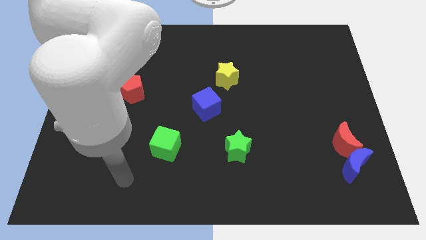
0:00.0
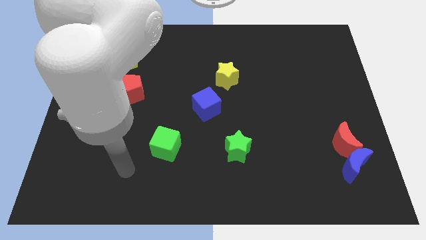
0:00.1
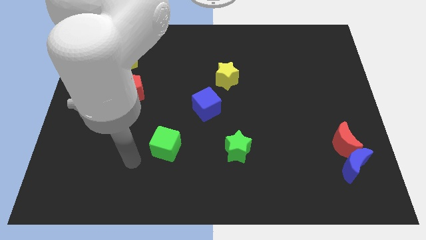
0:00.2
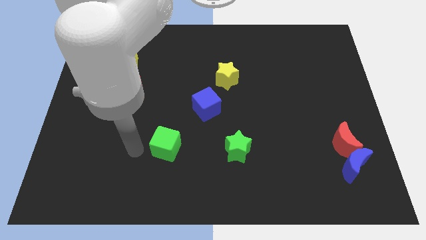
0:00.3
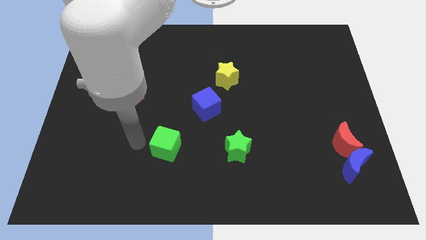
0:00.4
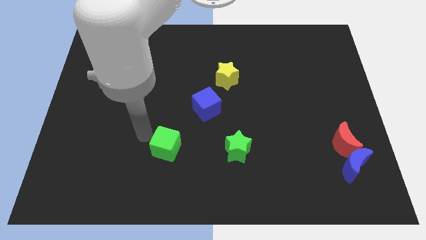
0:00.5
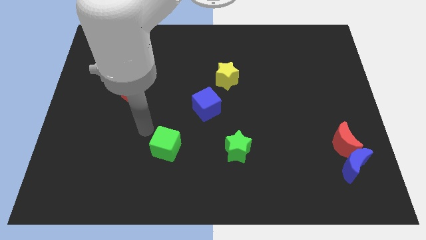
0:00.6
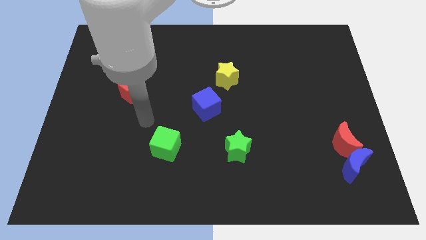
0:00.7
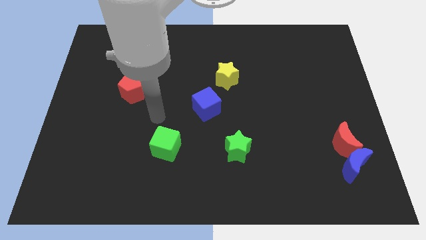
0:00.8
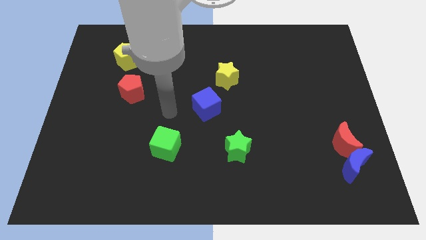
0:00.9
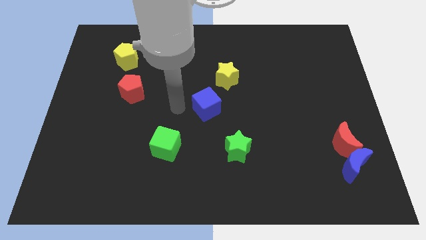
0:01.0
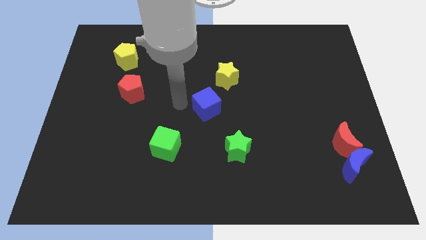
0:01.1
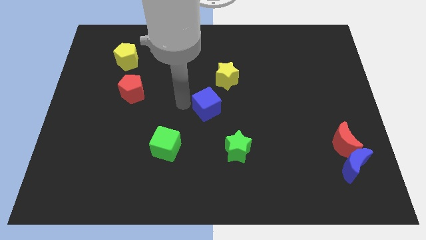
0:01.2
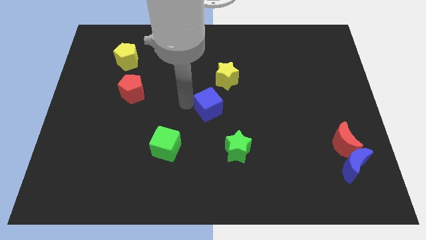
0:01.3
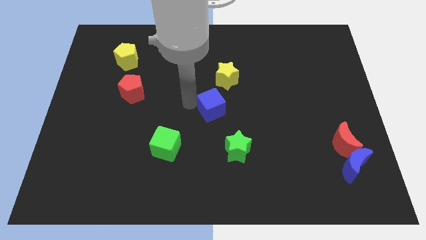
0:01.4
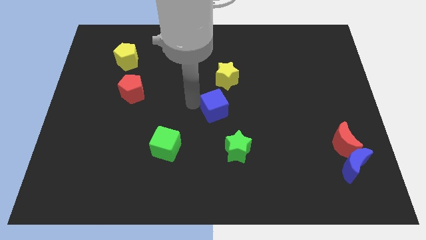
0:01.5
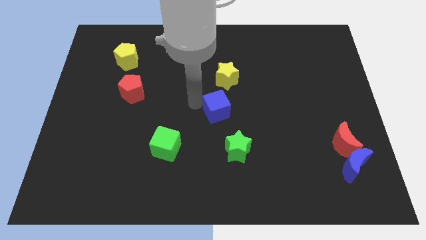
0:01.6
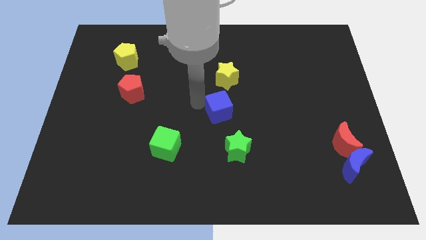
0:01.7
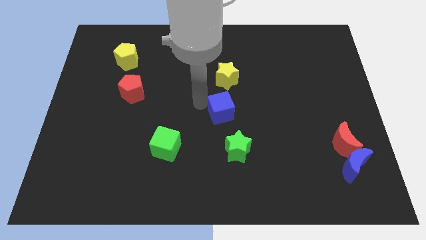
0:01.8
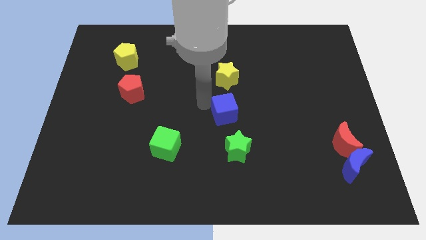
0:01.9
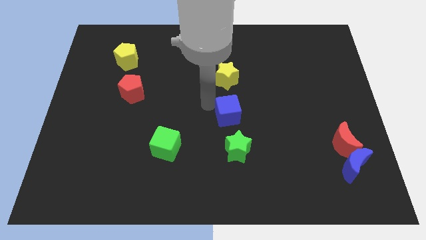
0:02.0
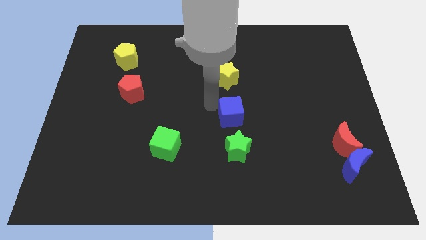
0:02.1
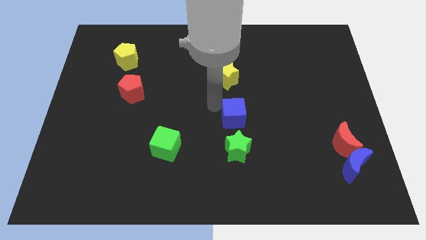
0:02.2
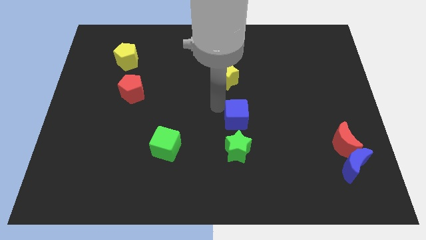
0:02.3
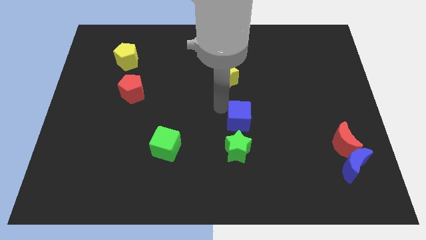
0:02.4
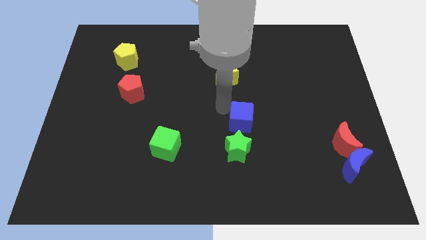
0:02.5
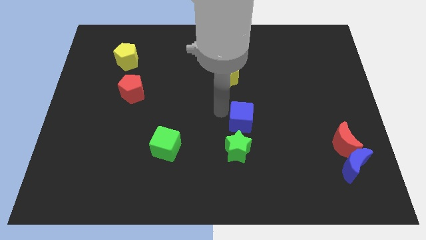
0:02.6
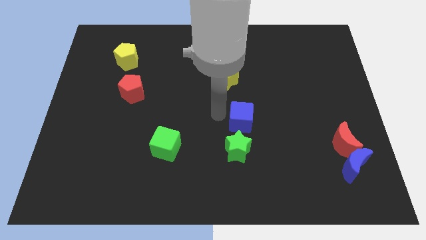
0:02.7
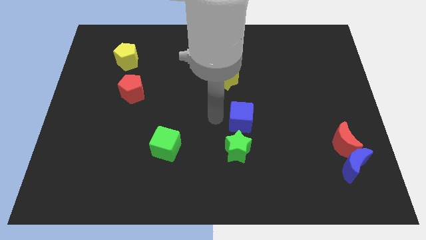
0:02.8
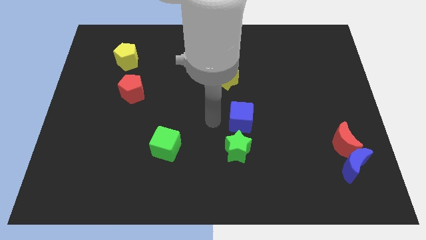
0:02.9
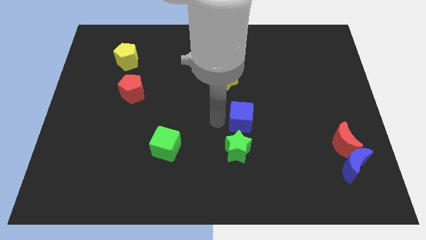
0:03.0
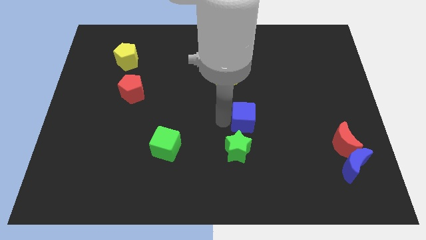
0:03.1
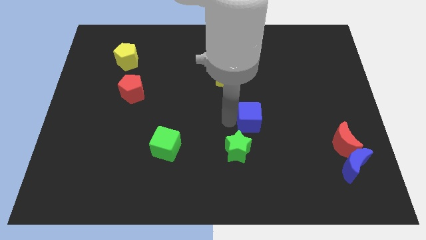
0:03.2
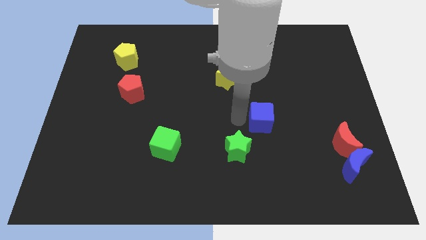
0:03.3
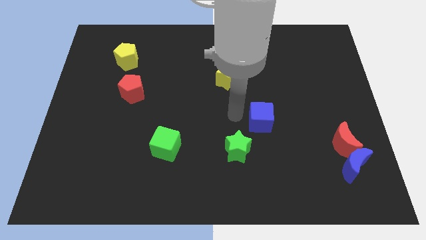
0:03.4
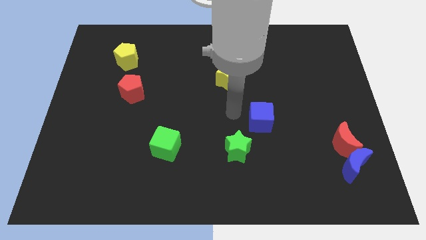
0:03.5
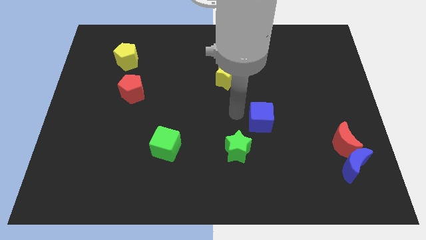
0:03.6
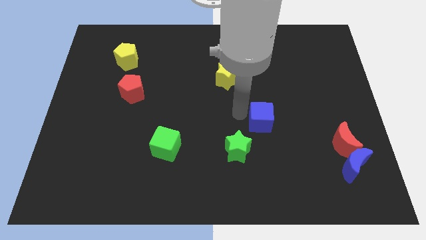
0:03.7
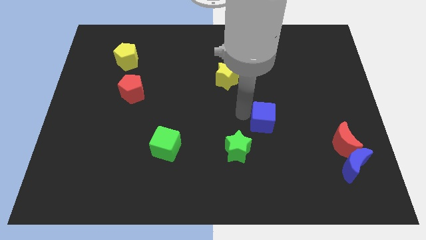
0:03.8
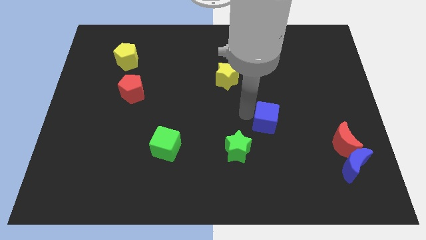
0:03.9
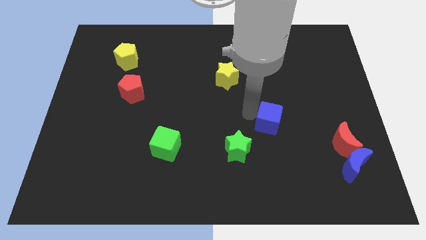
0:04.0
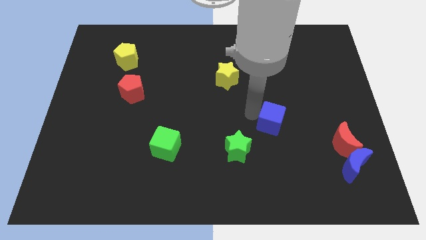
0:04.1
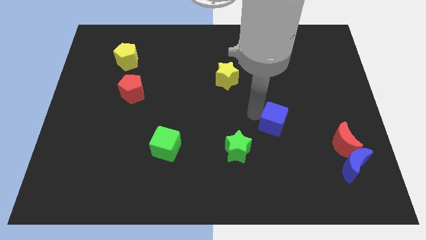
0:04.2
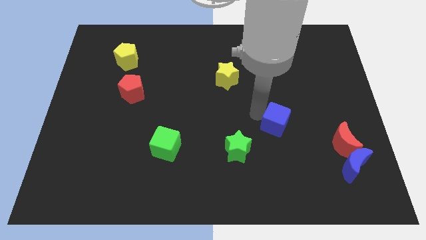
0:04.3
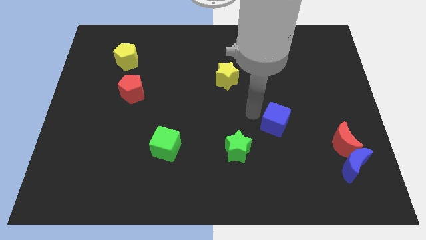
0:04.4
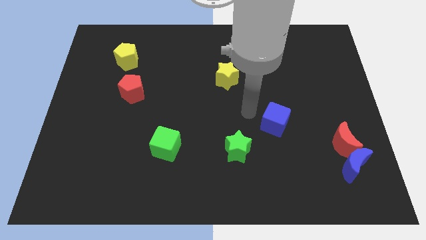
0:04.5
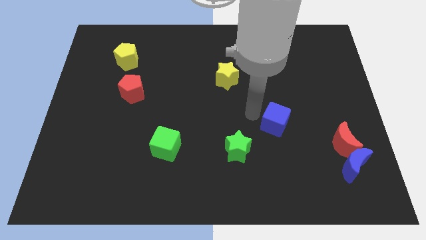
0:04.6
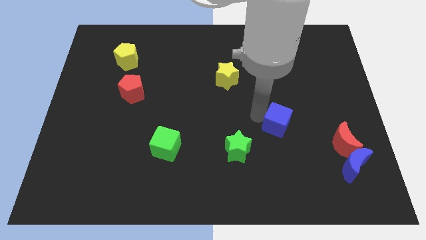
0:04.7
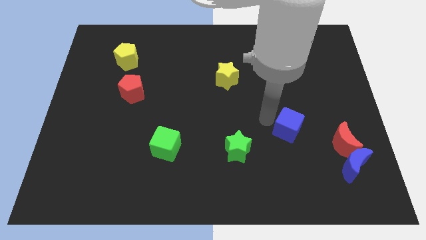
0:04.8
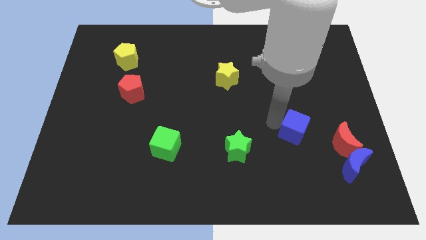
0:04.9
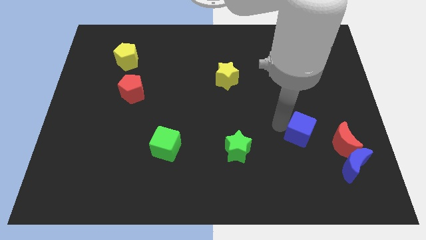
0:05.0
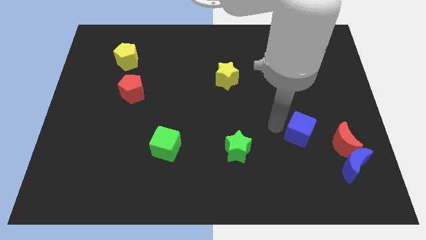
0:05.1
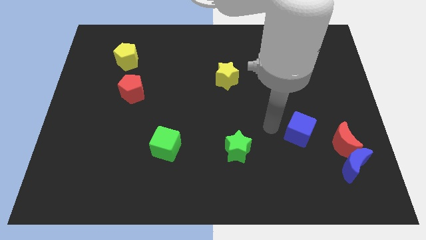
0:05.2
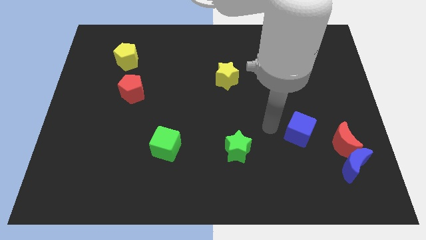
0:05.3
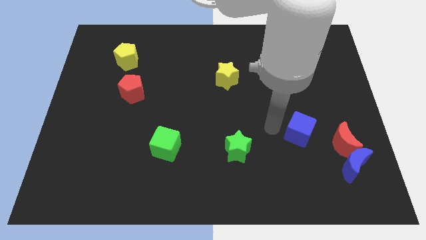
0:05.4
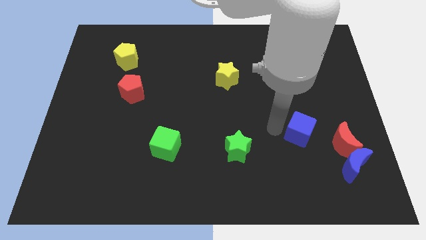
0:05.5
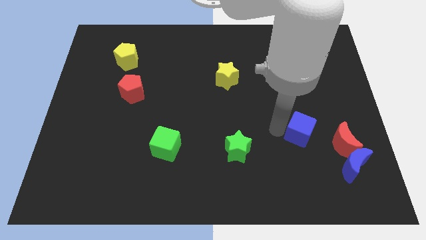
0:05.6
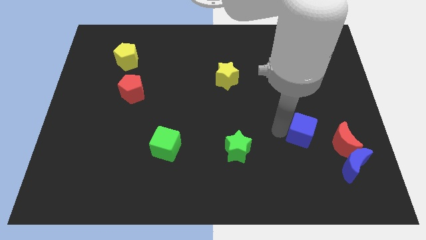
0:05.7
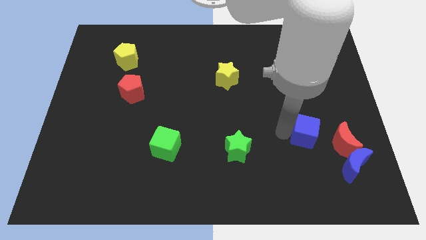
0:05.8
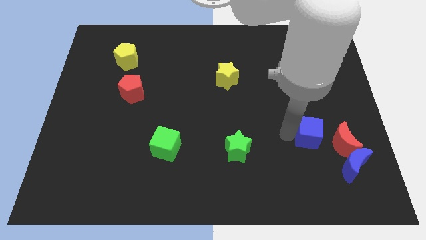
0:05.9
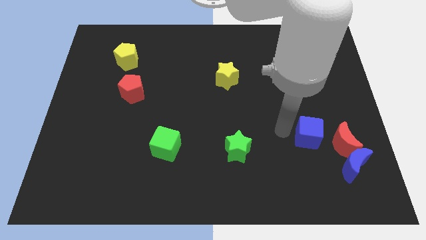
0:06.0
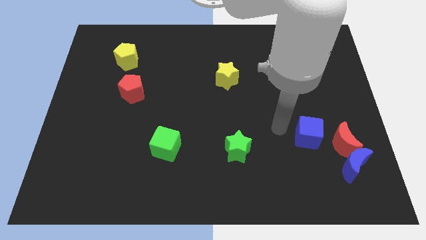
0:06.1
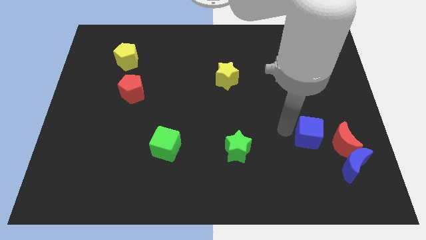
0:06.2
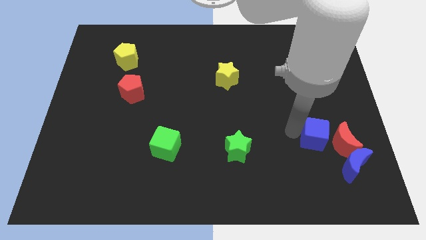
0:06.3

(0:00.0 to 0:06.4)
put the blue cube to the red moon
